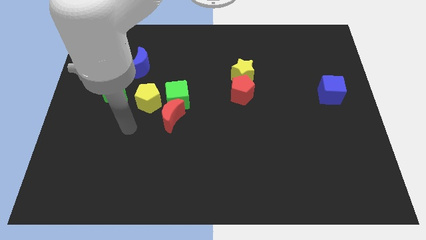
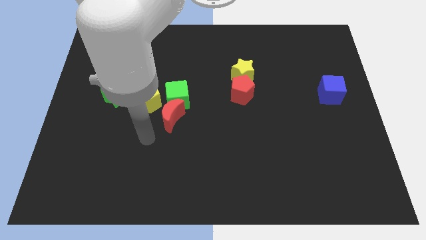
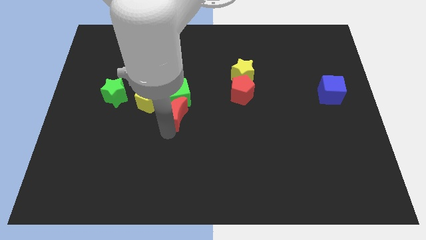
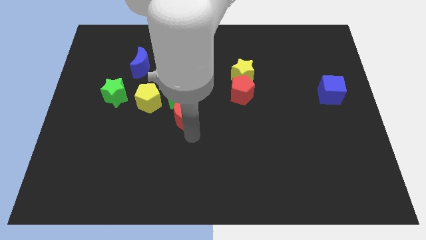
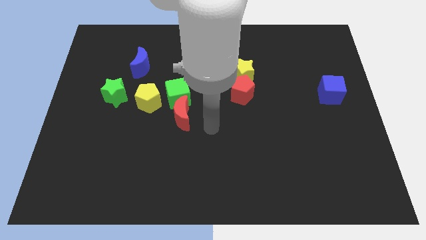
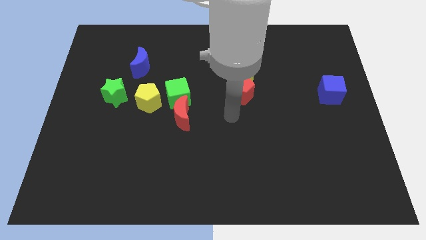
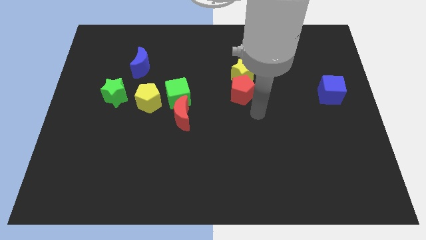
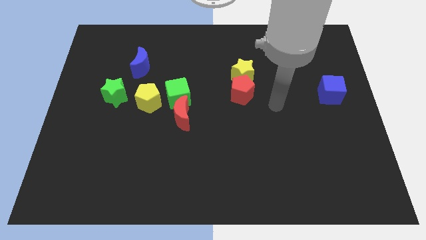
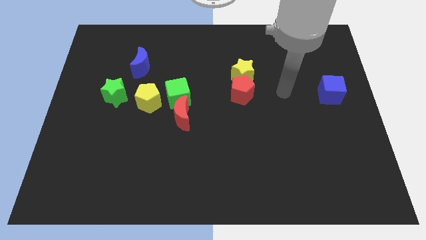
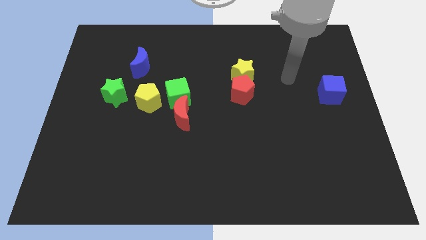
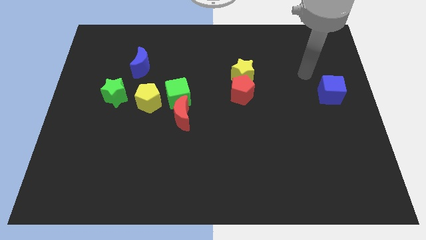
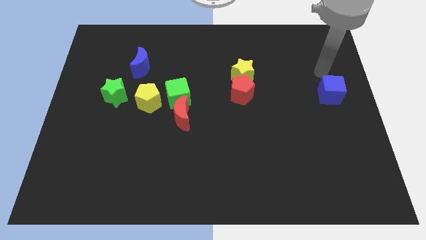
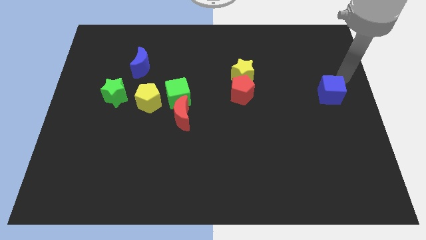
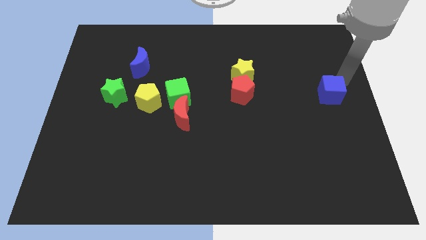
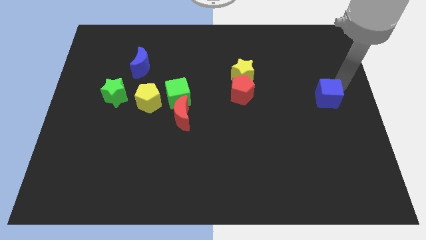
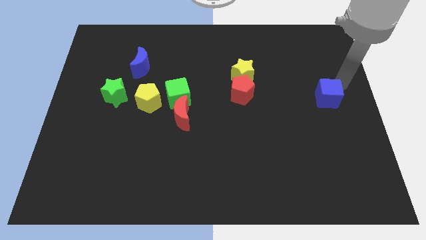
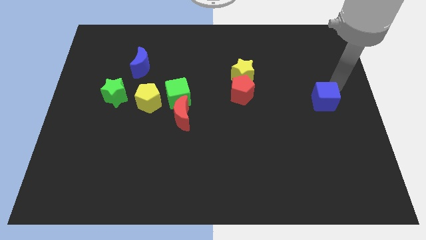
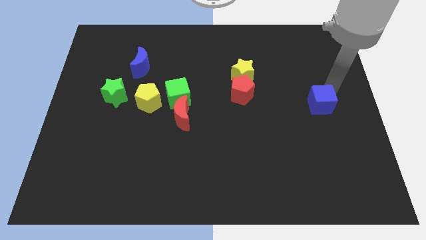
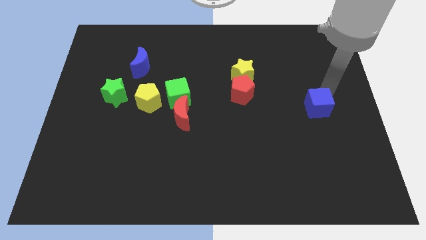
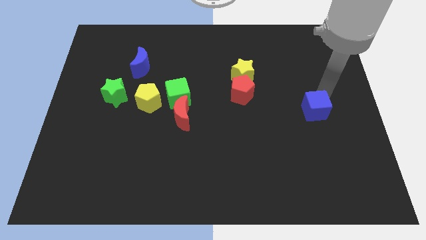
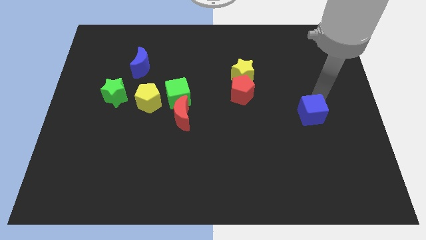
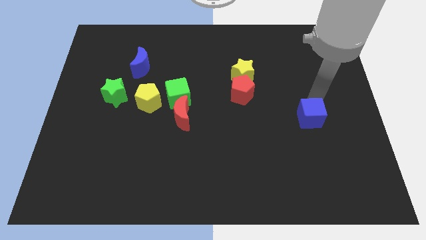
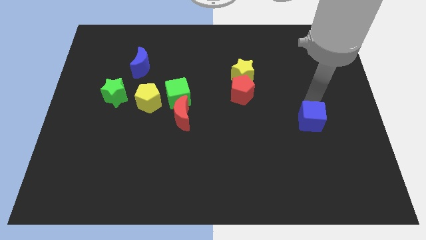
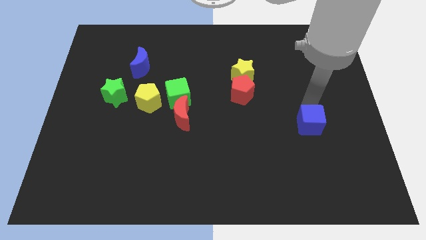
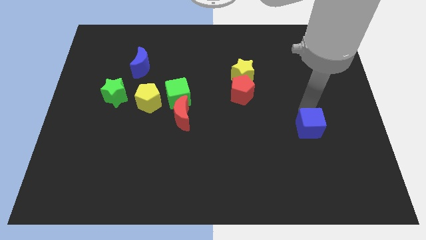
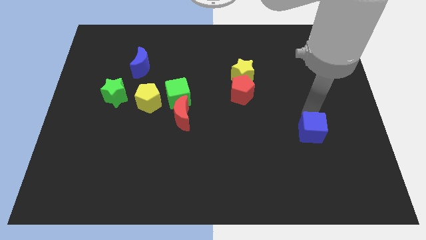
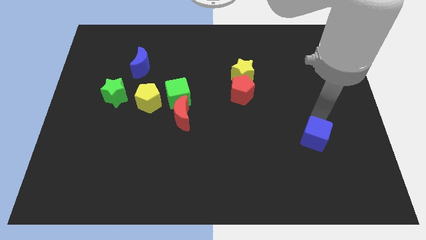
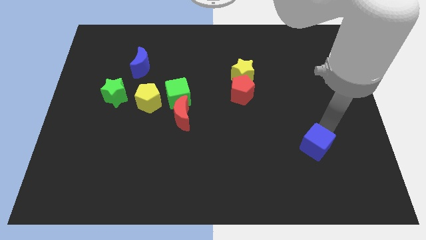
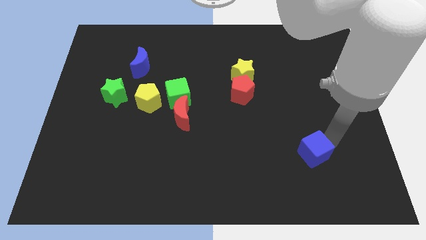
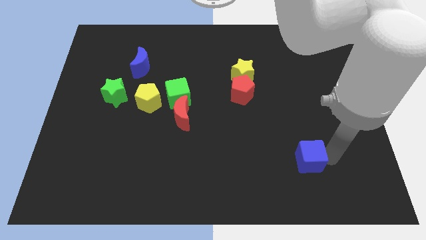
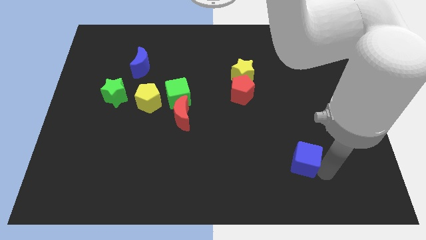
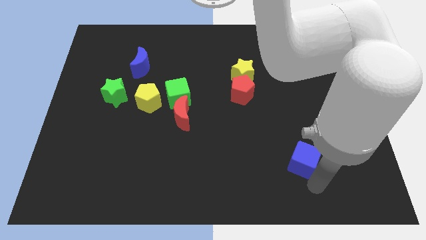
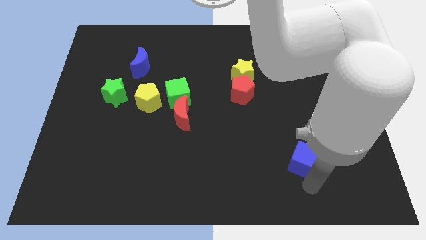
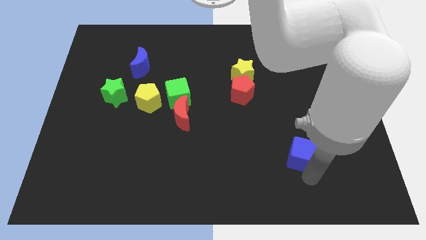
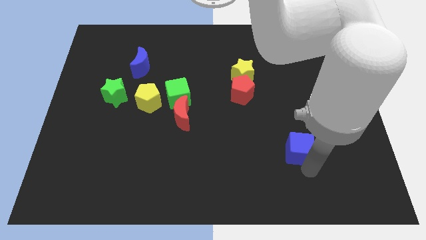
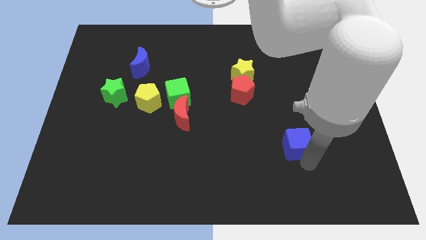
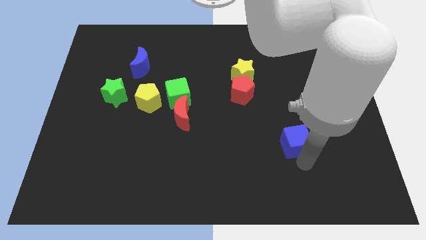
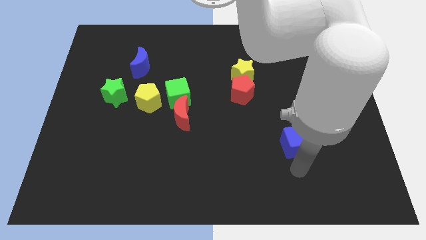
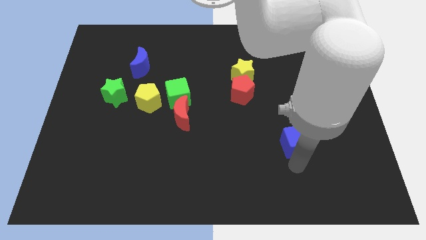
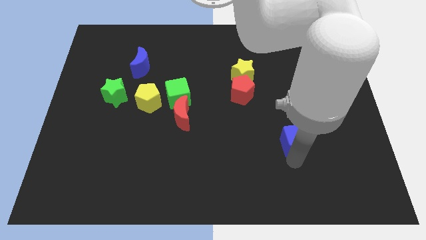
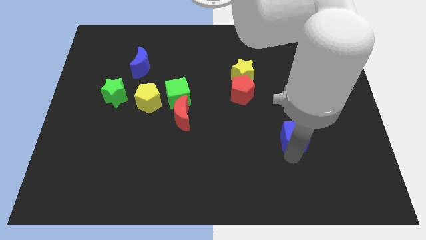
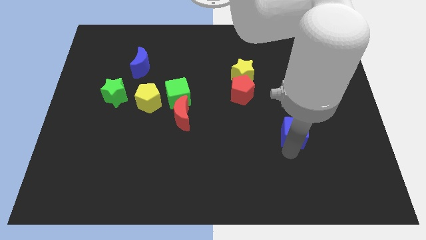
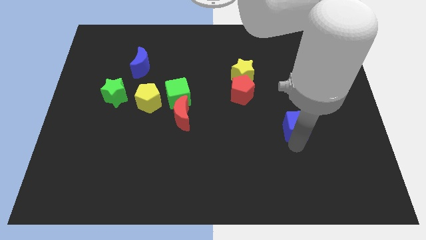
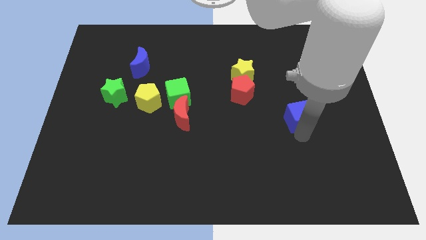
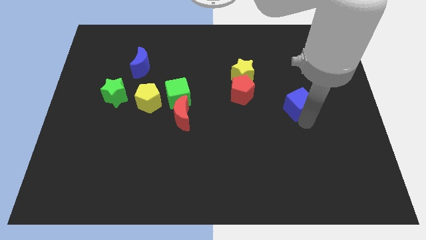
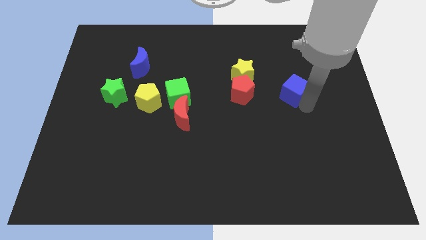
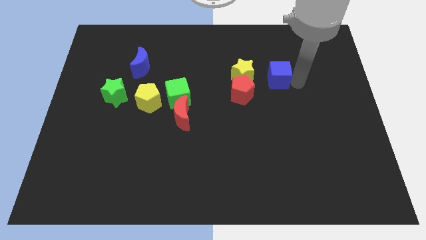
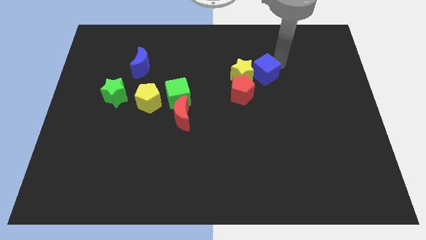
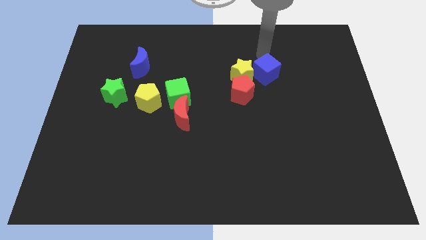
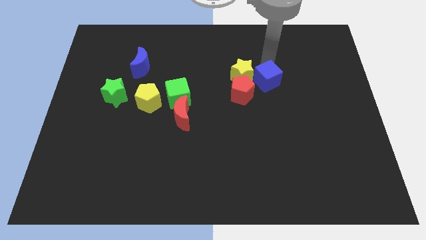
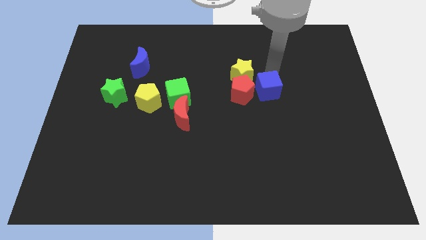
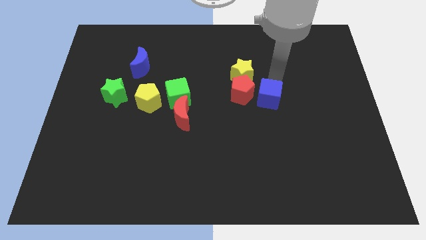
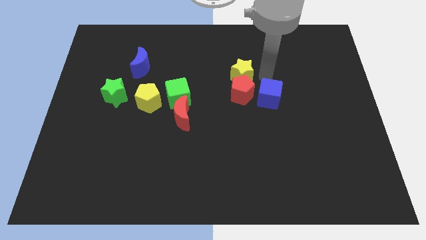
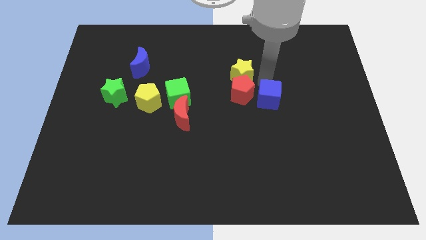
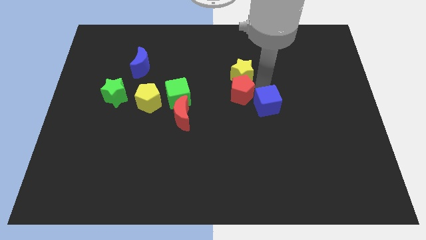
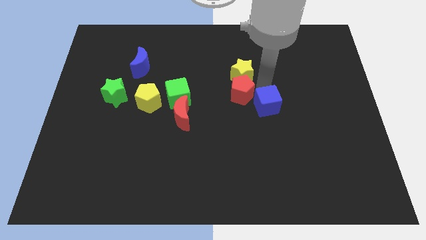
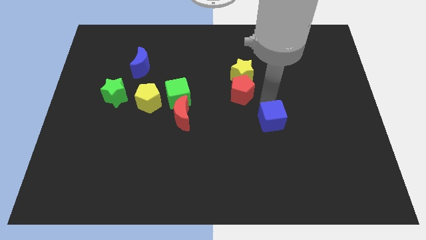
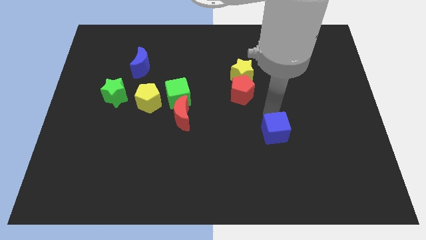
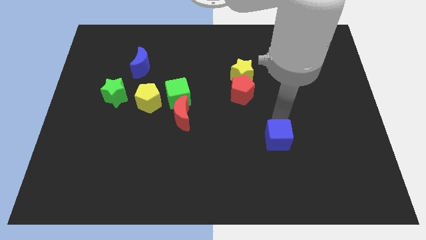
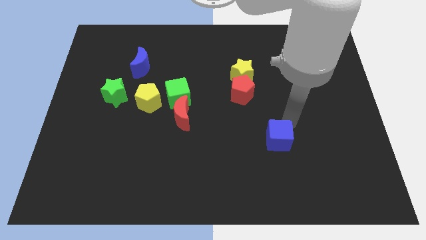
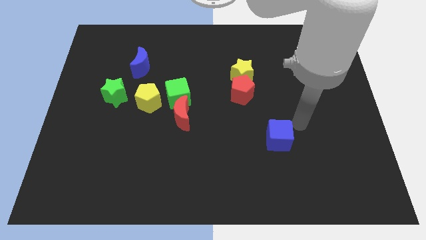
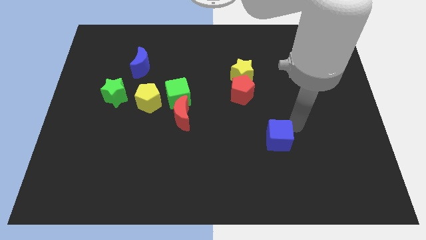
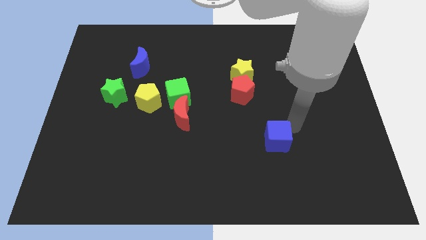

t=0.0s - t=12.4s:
move the blue cube diagonally downwards and to the left

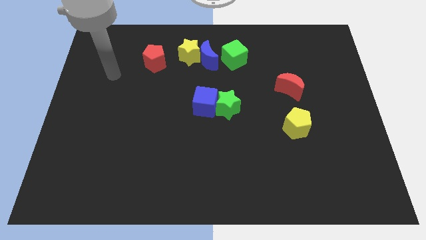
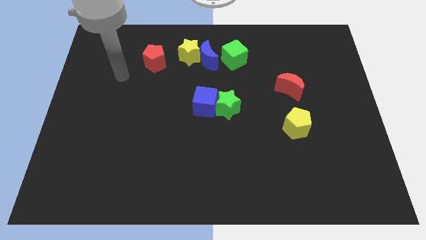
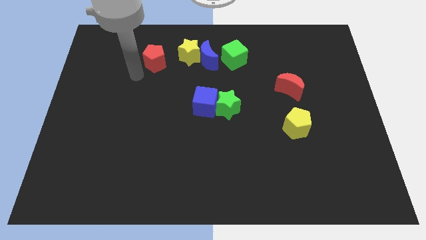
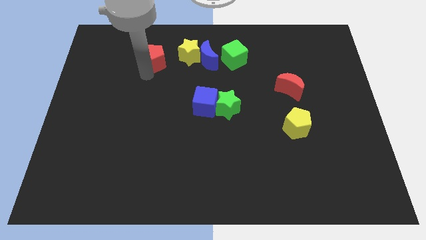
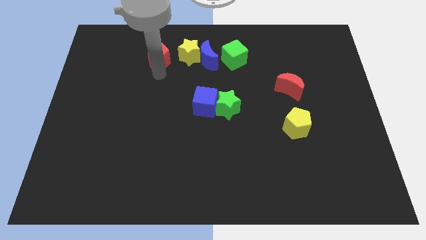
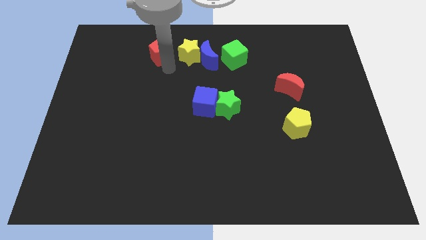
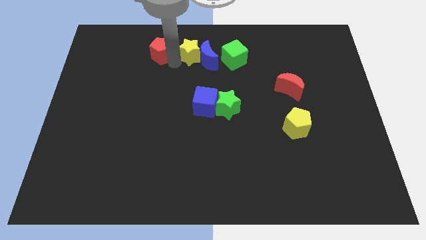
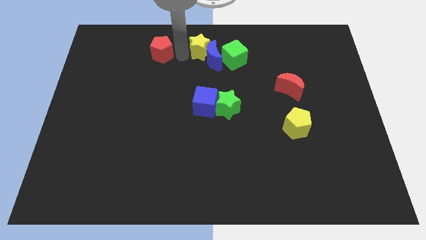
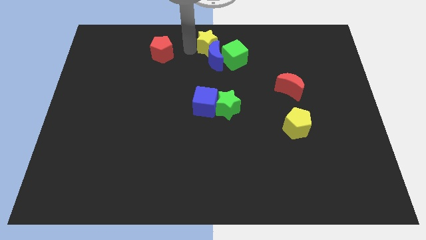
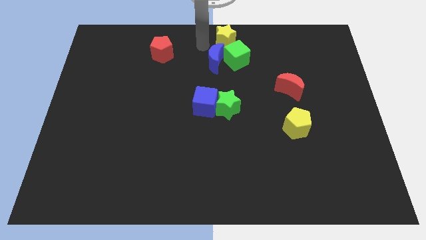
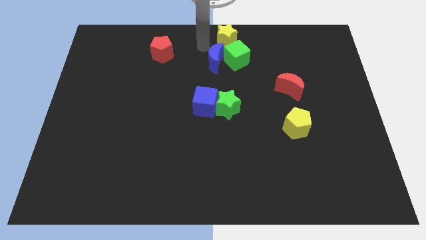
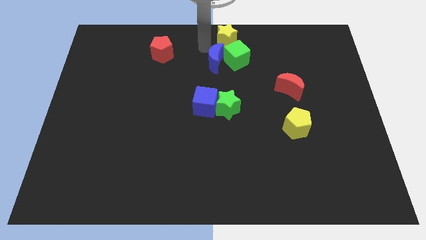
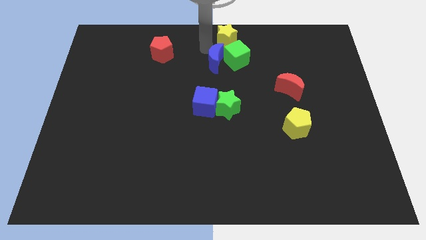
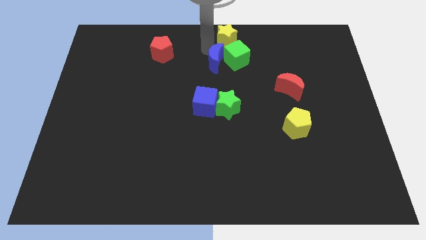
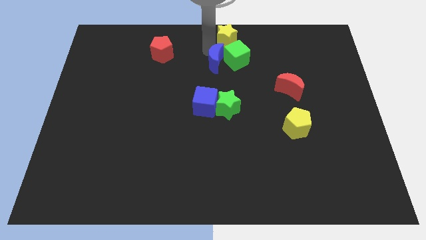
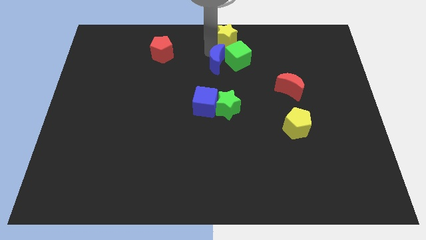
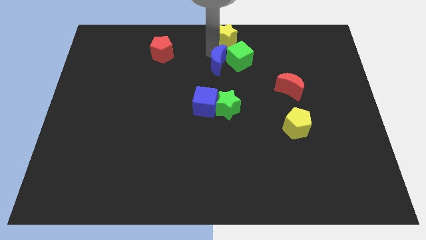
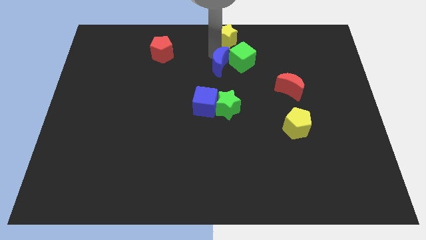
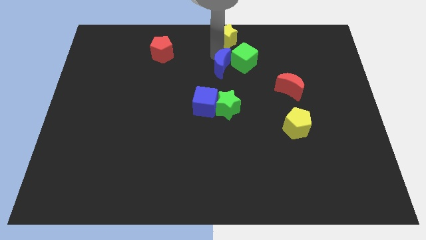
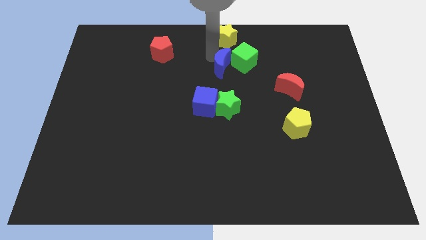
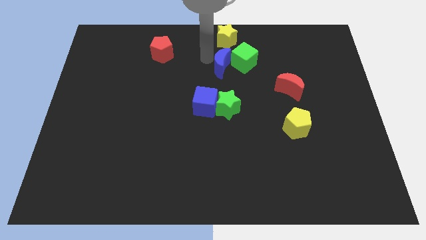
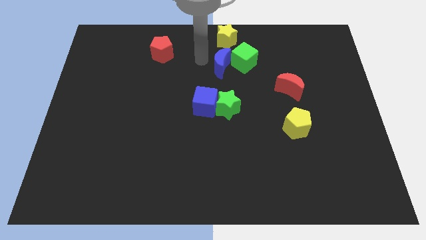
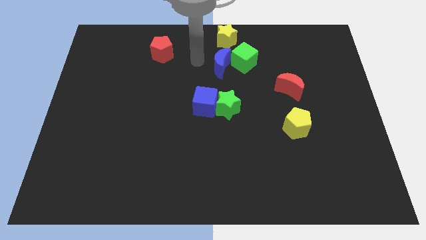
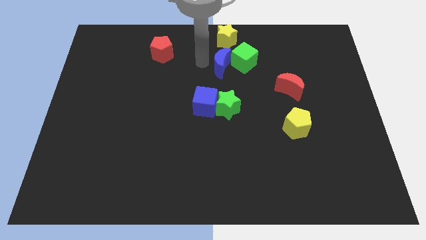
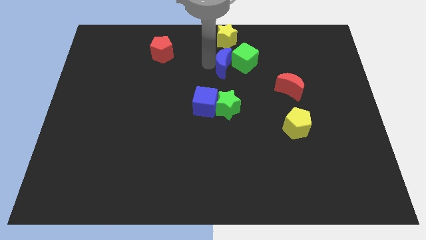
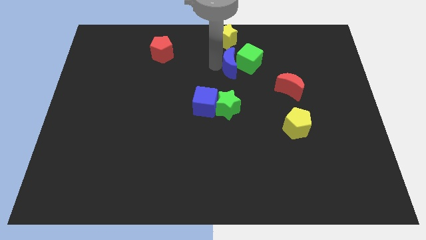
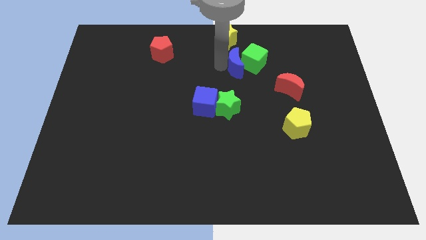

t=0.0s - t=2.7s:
slightly move the blue moon right
